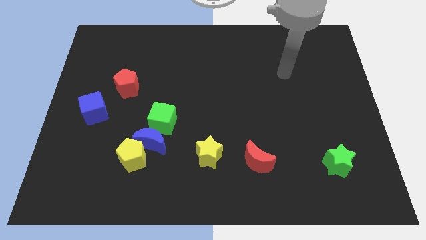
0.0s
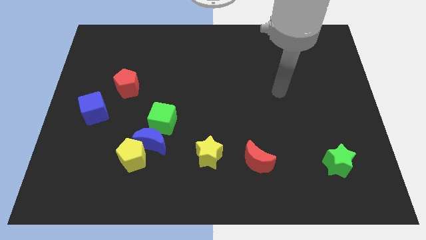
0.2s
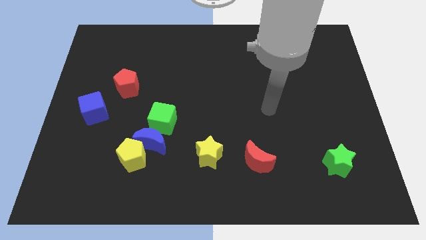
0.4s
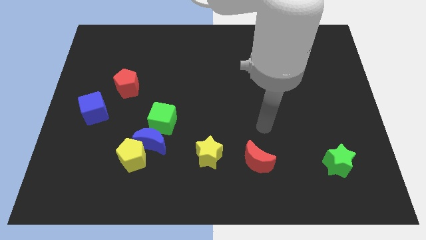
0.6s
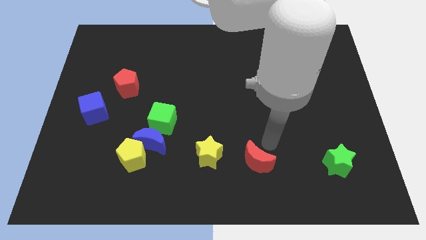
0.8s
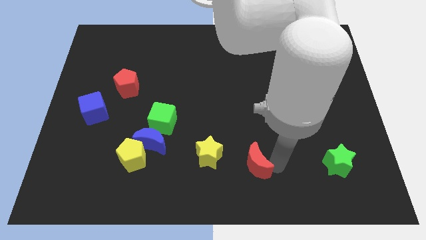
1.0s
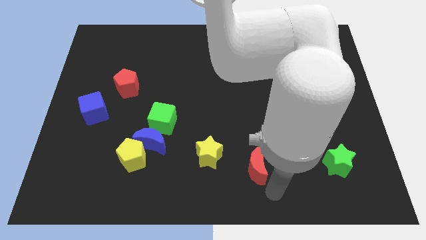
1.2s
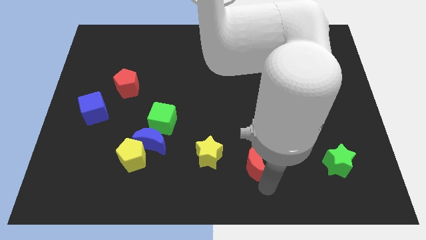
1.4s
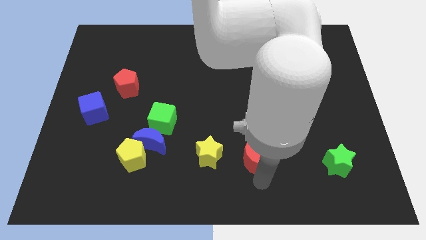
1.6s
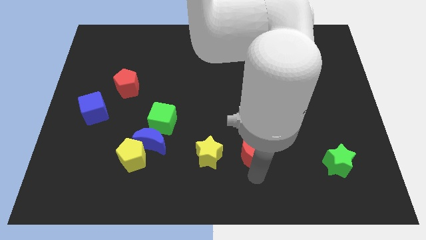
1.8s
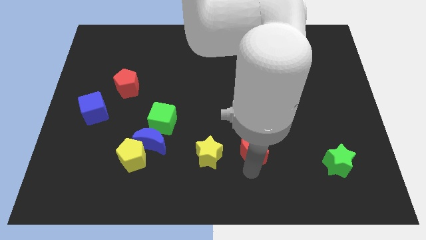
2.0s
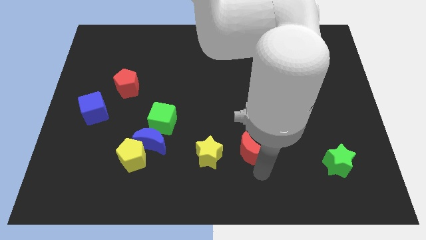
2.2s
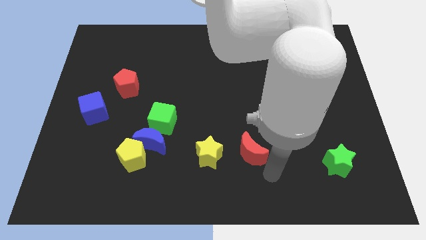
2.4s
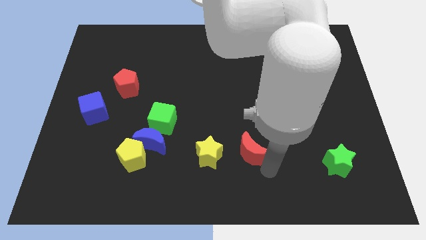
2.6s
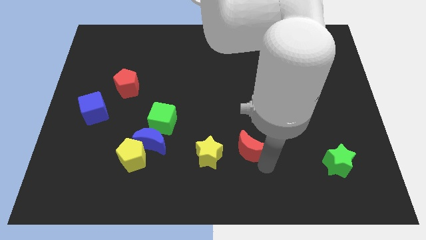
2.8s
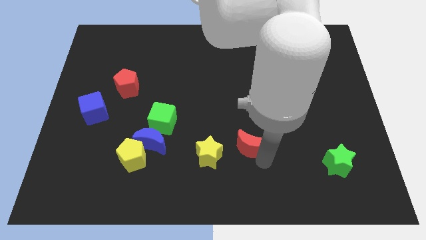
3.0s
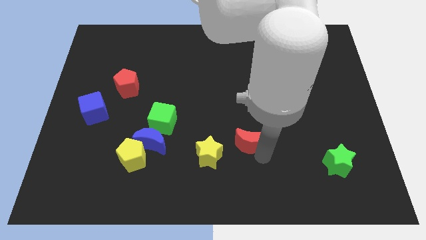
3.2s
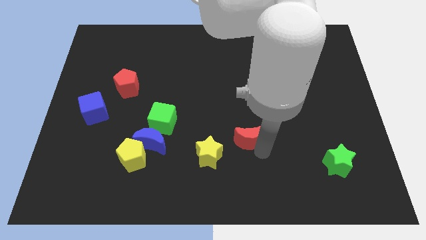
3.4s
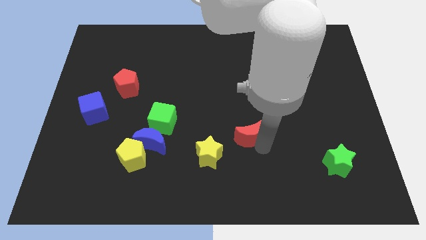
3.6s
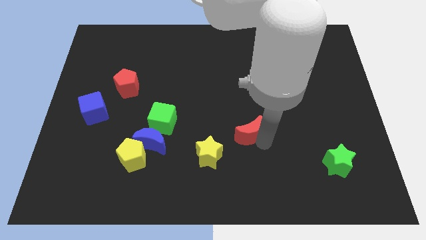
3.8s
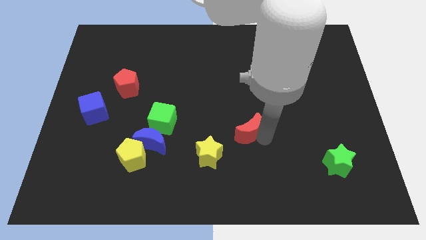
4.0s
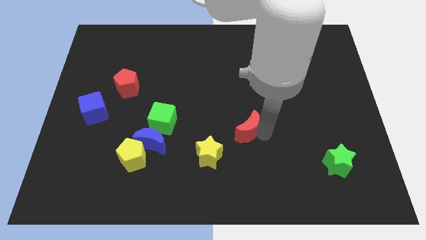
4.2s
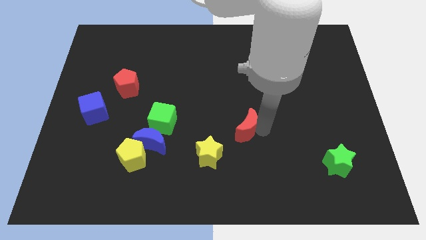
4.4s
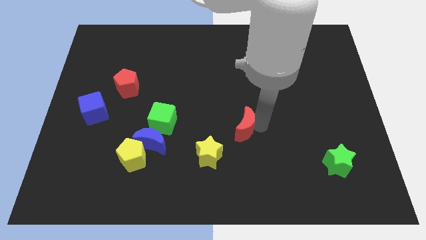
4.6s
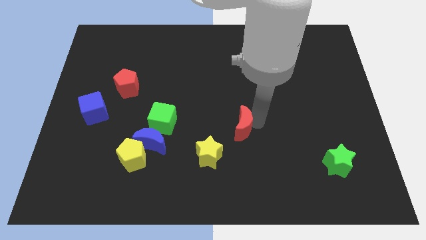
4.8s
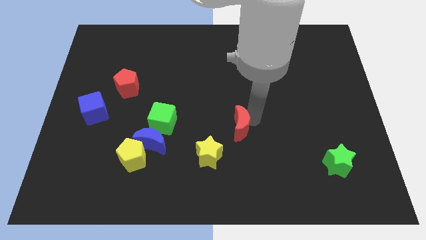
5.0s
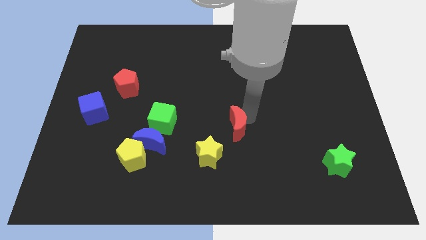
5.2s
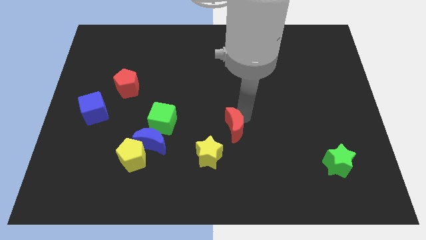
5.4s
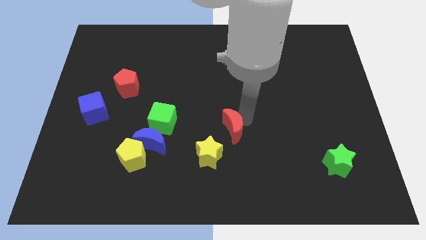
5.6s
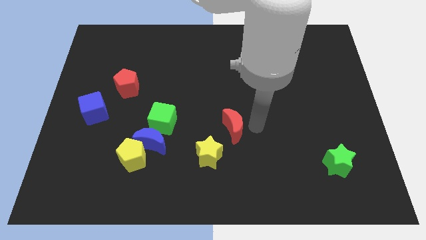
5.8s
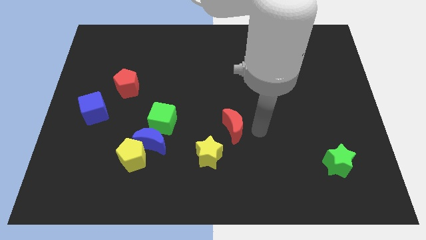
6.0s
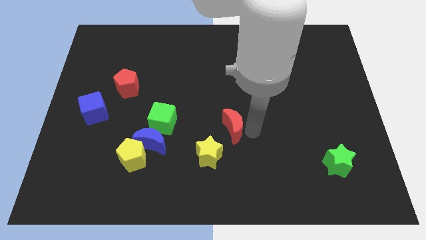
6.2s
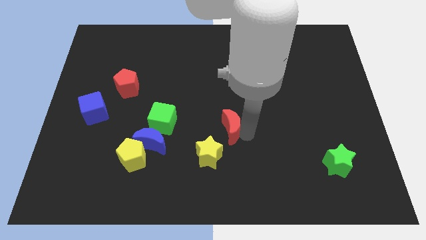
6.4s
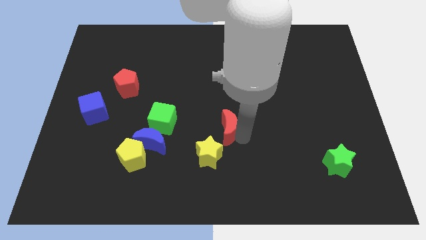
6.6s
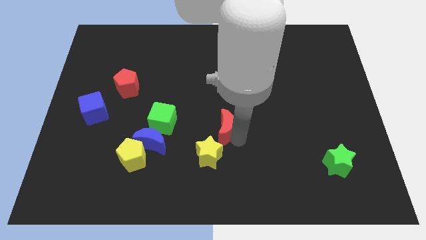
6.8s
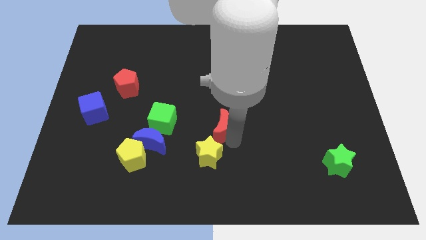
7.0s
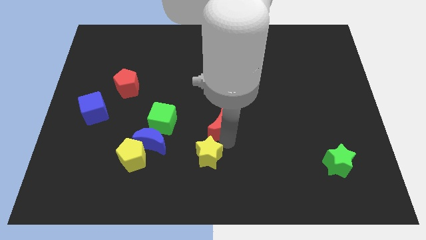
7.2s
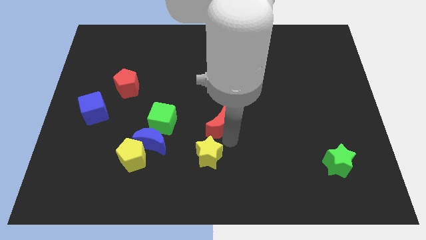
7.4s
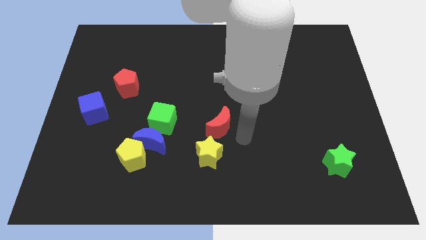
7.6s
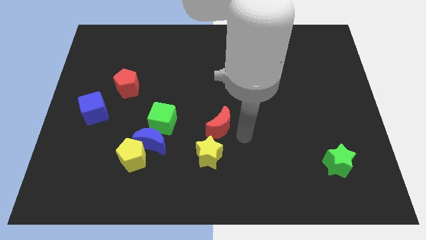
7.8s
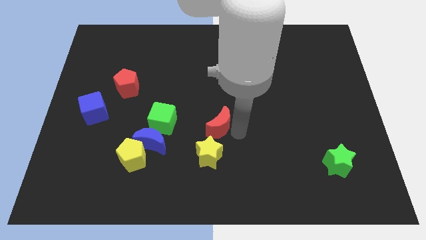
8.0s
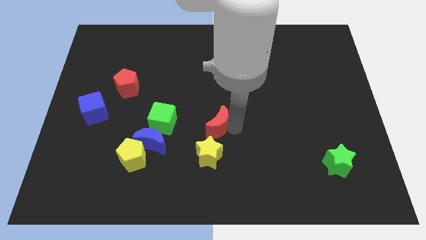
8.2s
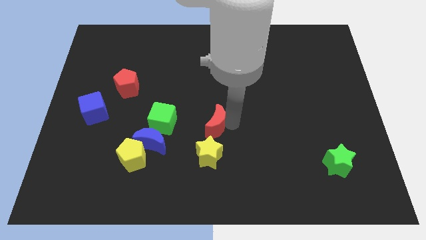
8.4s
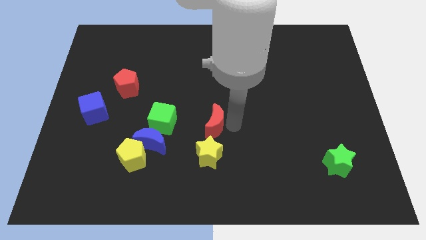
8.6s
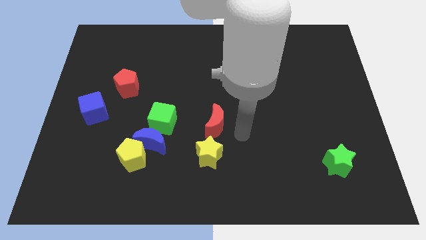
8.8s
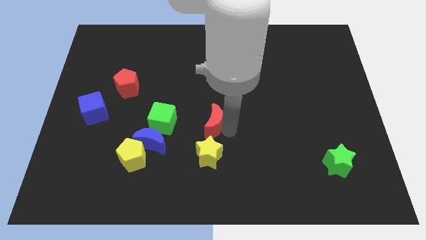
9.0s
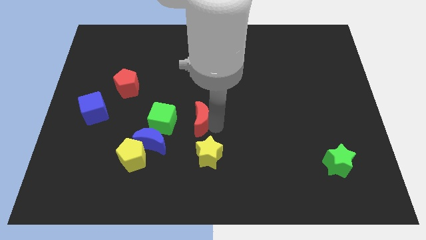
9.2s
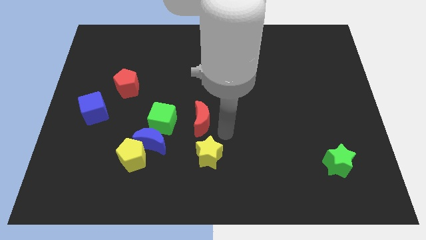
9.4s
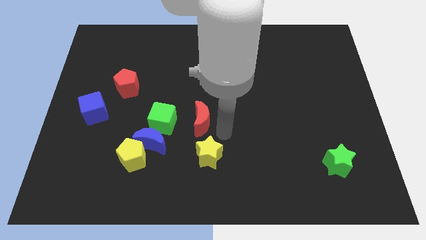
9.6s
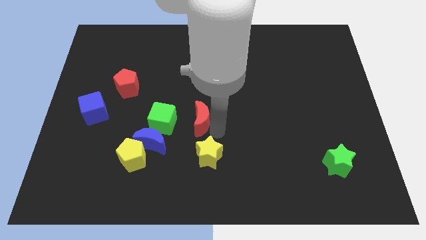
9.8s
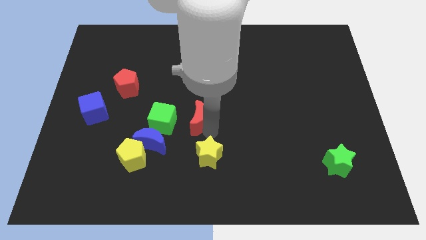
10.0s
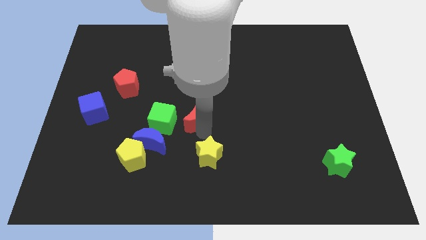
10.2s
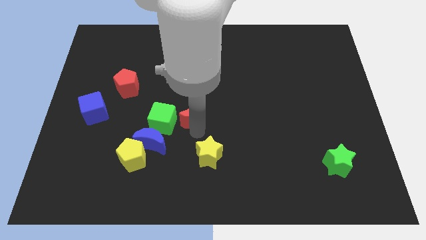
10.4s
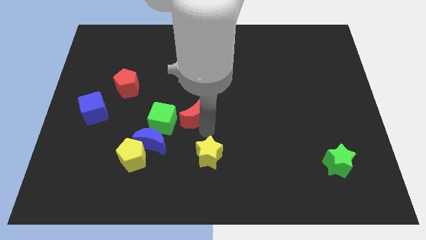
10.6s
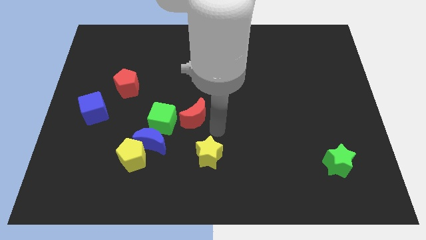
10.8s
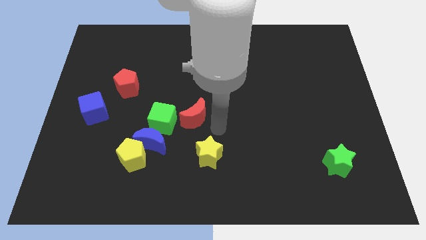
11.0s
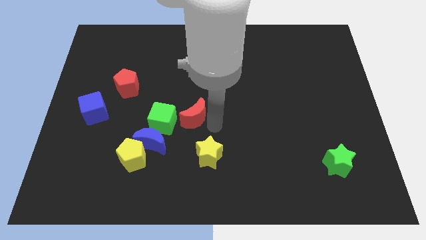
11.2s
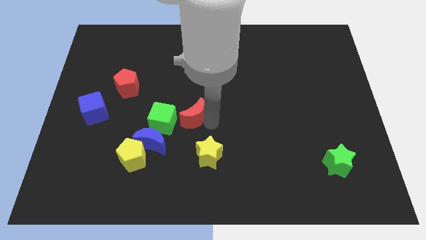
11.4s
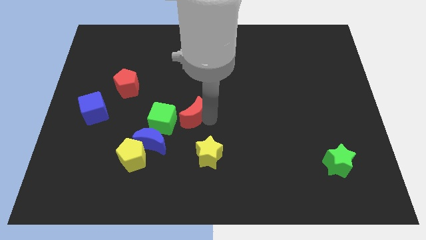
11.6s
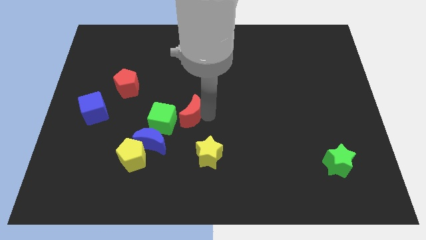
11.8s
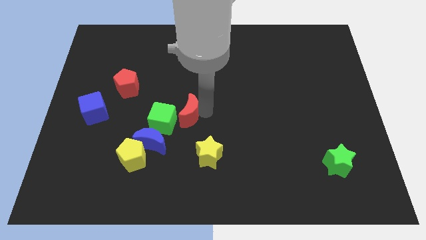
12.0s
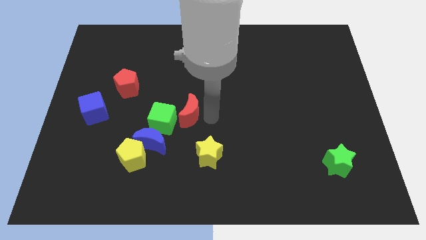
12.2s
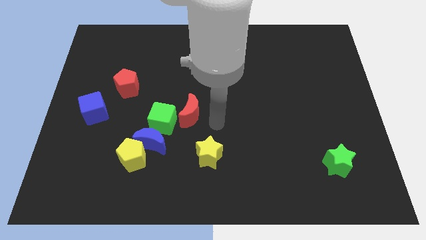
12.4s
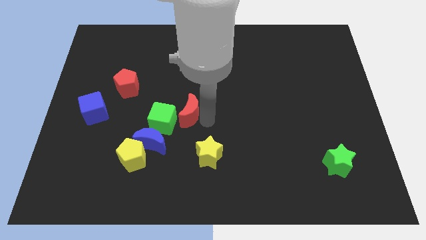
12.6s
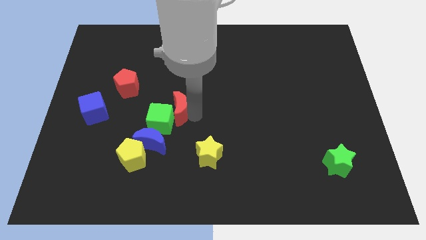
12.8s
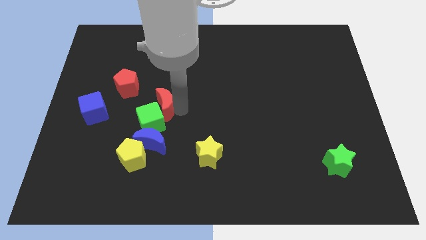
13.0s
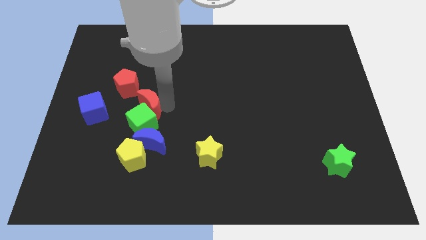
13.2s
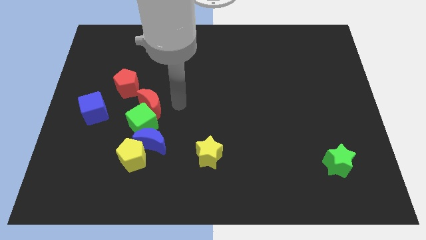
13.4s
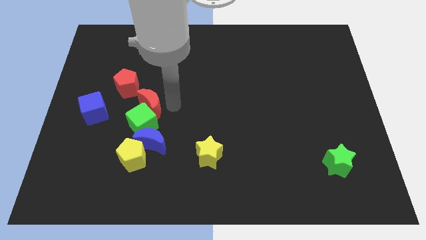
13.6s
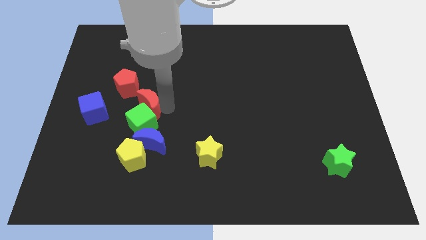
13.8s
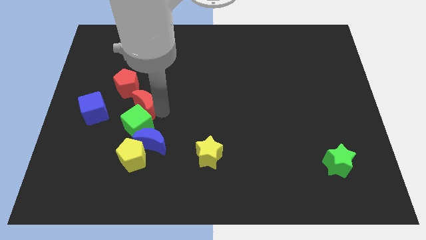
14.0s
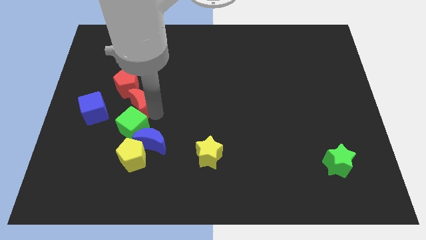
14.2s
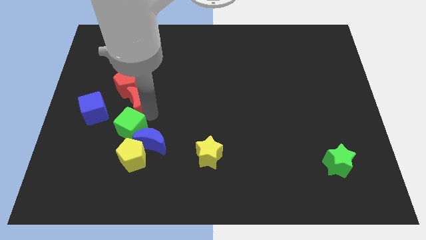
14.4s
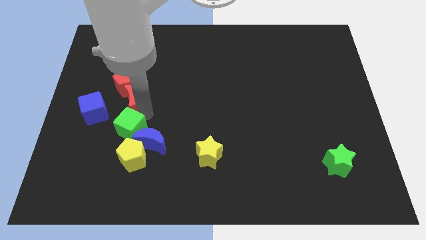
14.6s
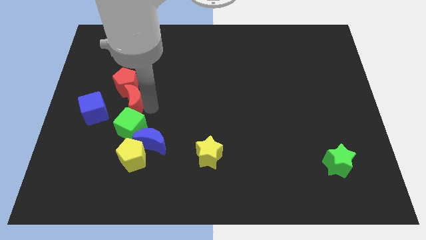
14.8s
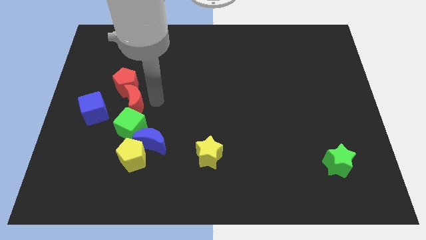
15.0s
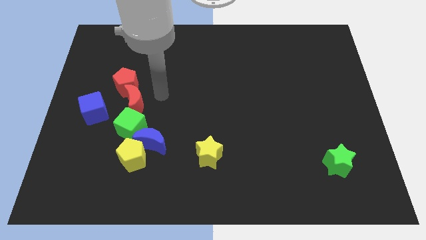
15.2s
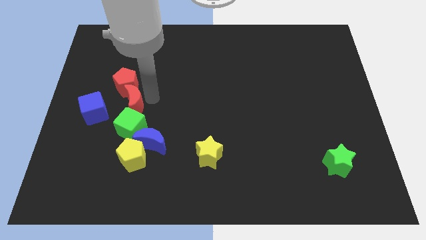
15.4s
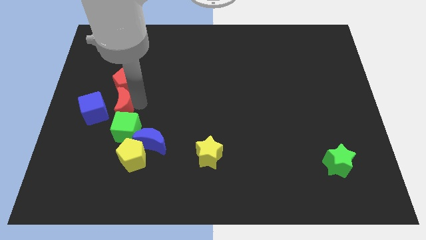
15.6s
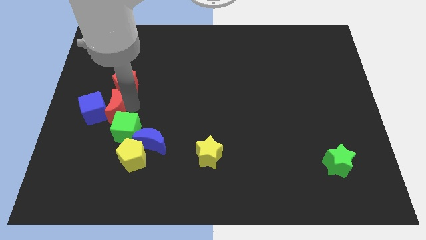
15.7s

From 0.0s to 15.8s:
move the red moon next to the blue cube
